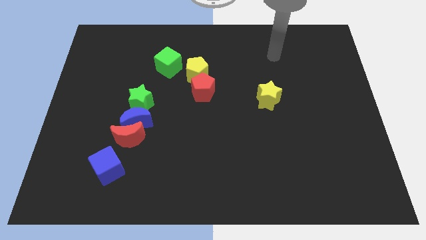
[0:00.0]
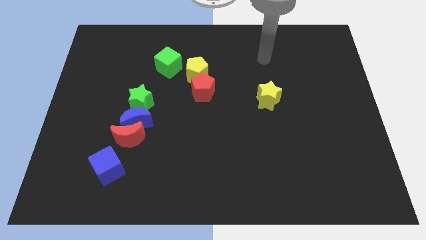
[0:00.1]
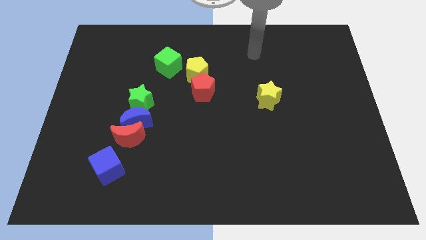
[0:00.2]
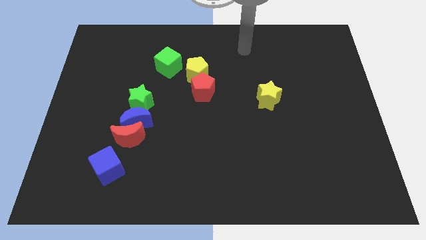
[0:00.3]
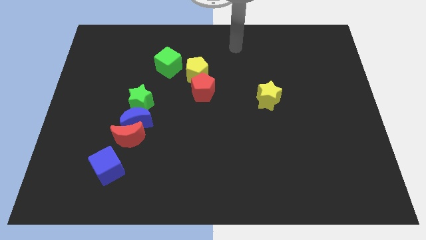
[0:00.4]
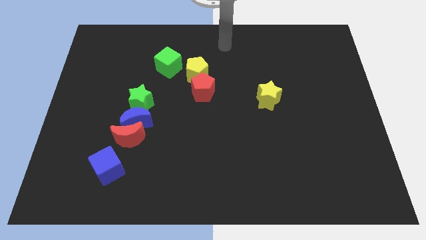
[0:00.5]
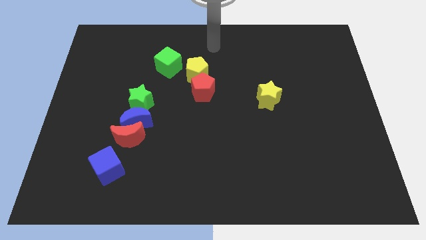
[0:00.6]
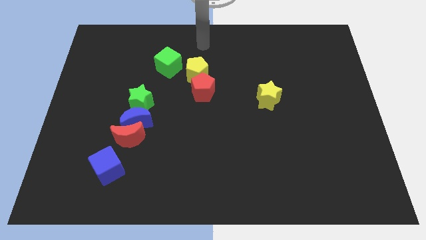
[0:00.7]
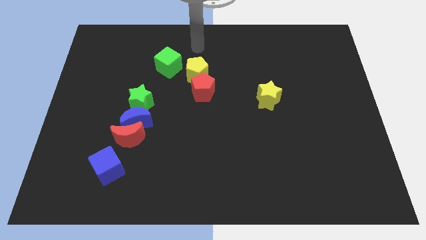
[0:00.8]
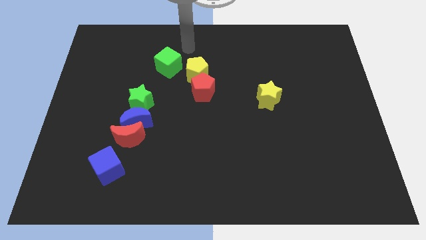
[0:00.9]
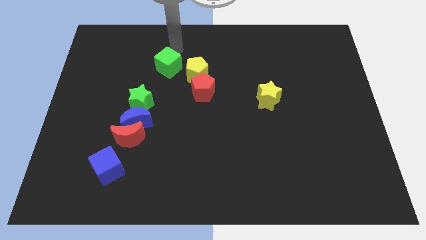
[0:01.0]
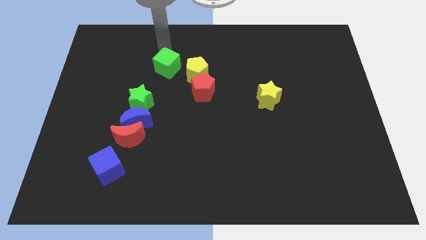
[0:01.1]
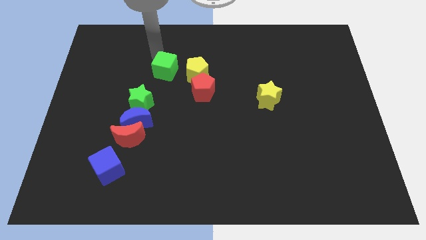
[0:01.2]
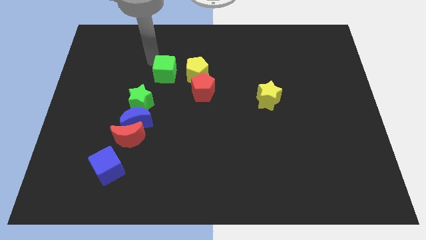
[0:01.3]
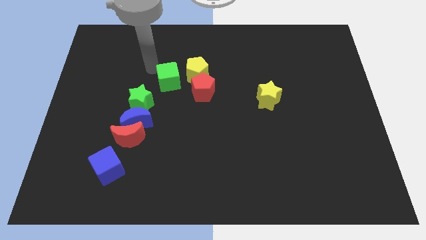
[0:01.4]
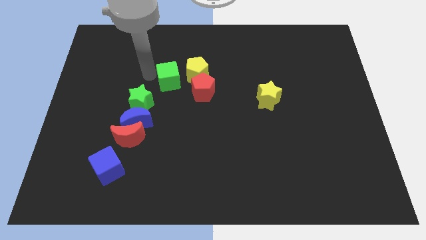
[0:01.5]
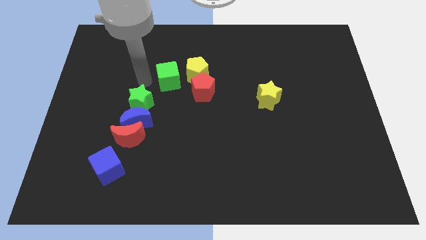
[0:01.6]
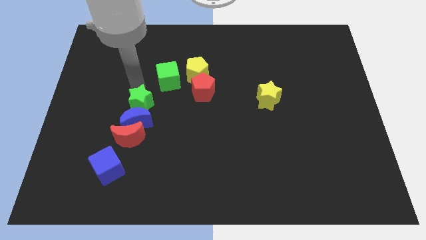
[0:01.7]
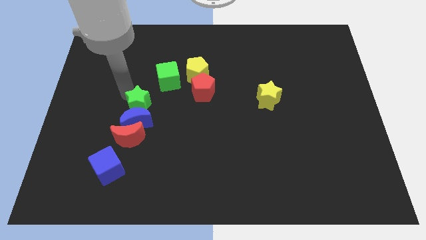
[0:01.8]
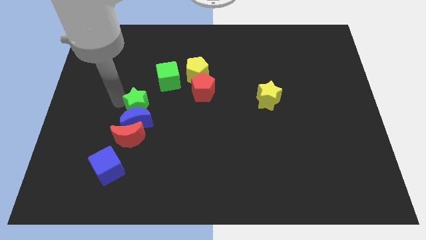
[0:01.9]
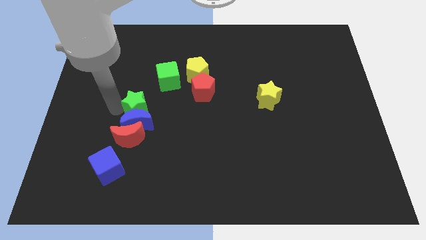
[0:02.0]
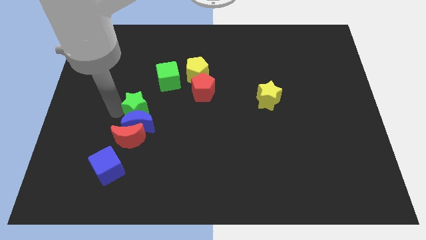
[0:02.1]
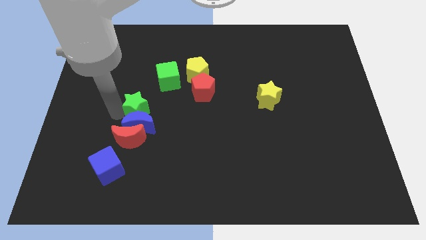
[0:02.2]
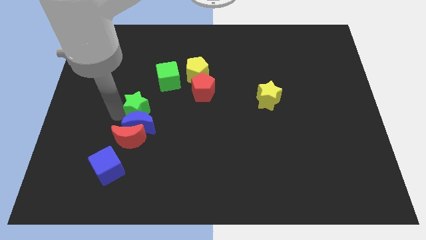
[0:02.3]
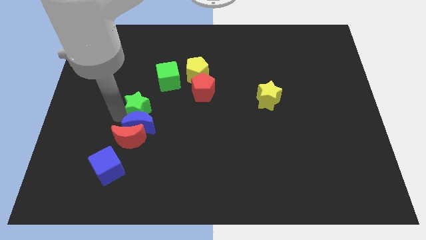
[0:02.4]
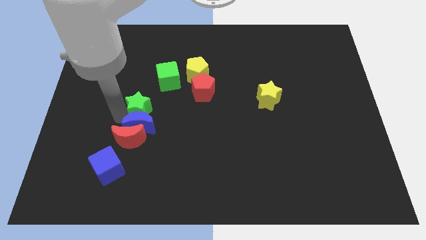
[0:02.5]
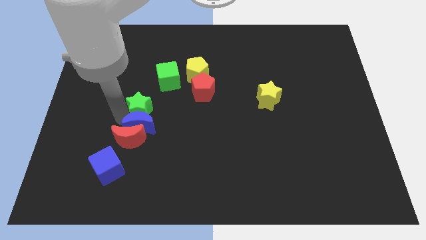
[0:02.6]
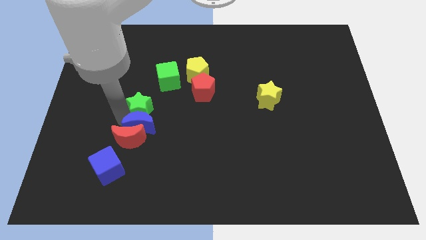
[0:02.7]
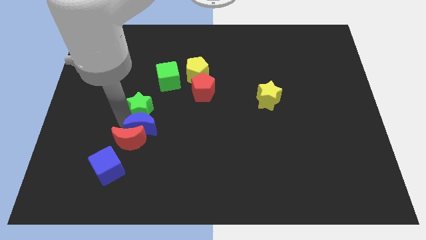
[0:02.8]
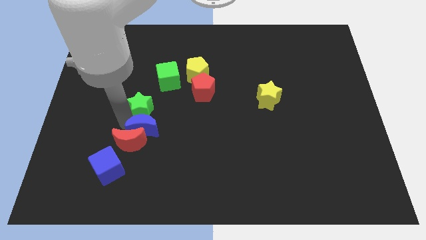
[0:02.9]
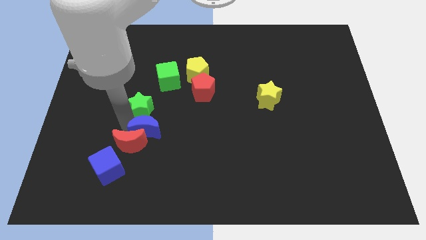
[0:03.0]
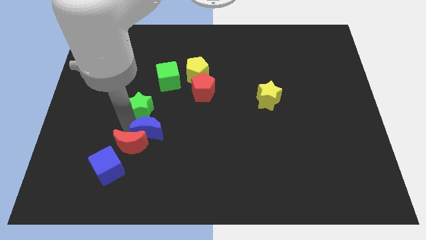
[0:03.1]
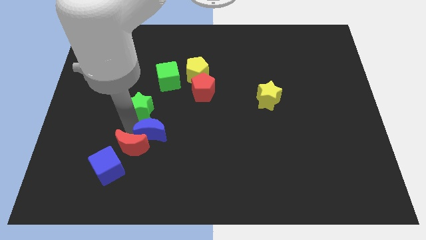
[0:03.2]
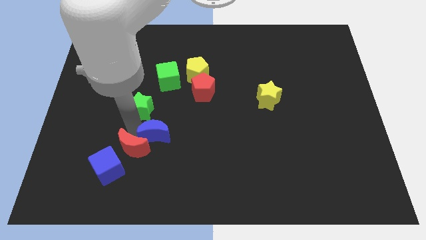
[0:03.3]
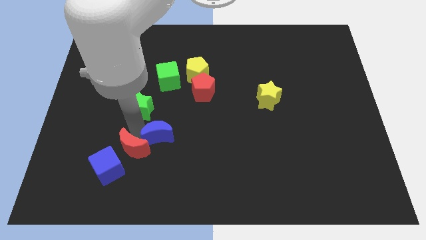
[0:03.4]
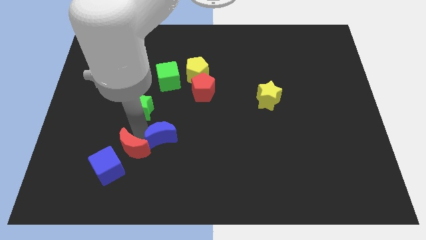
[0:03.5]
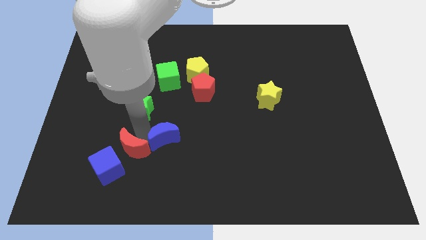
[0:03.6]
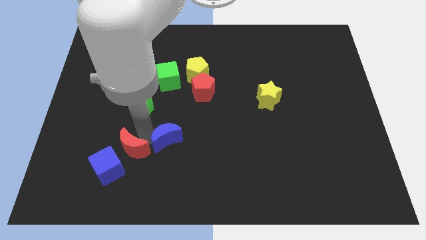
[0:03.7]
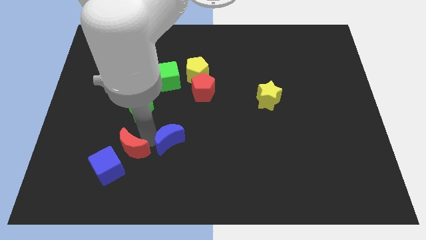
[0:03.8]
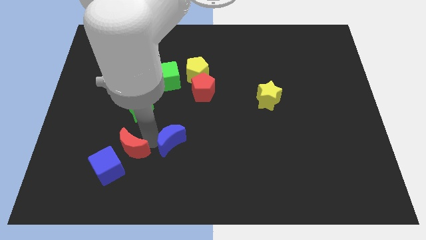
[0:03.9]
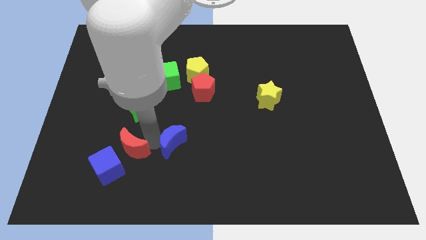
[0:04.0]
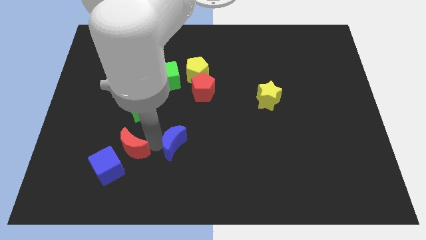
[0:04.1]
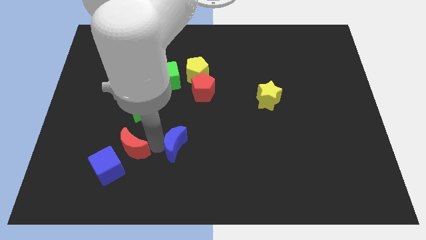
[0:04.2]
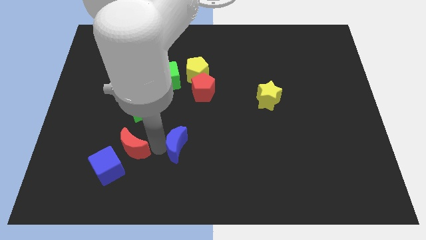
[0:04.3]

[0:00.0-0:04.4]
pull the blue moon apart from the red moon and green star

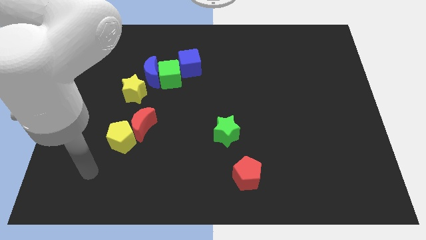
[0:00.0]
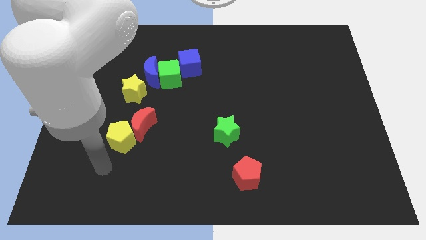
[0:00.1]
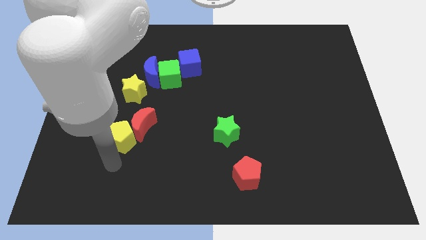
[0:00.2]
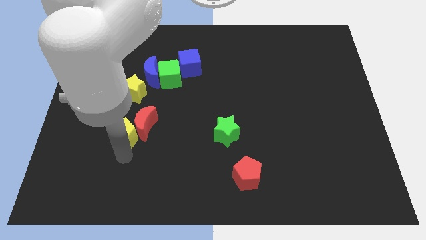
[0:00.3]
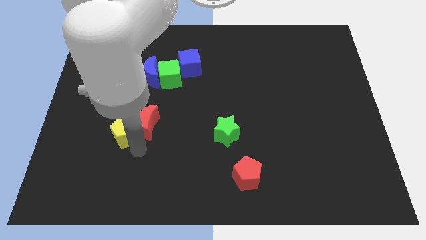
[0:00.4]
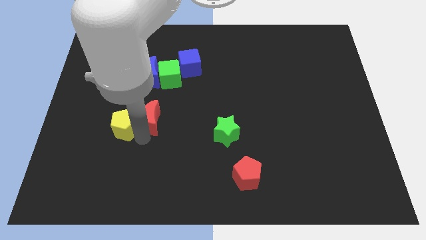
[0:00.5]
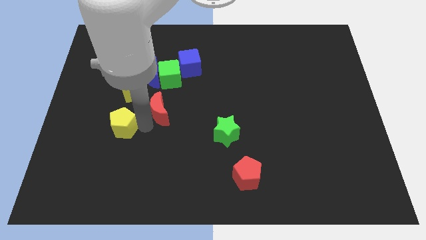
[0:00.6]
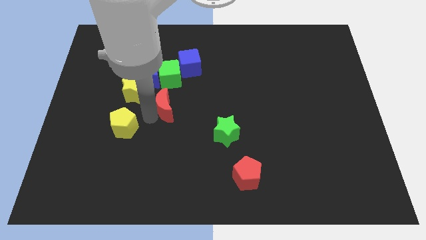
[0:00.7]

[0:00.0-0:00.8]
move the yellow pentagon away from the red moon

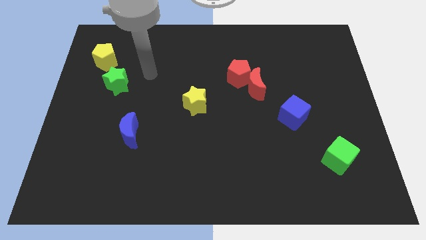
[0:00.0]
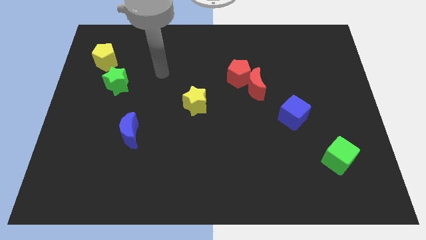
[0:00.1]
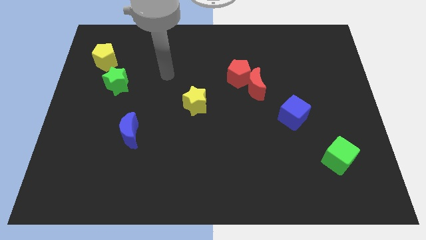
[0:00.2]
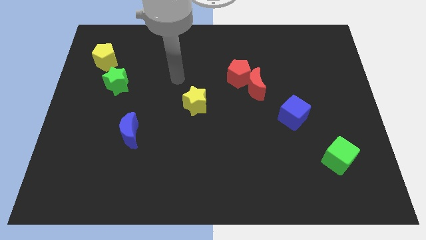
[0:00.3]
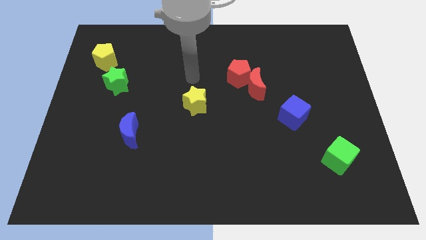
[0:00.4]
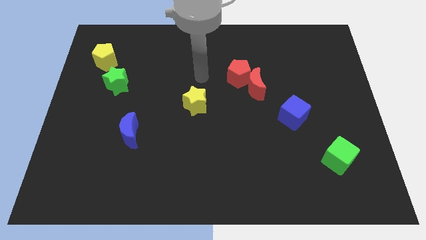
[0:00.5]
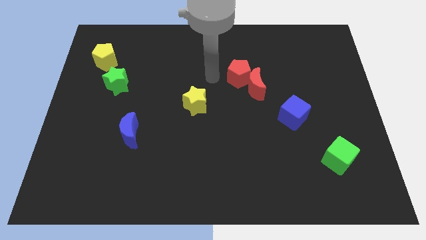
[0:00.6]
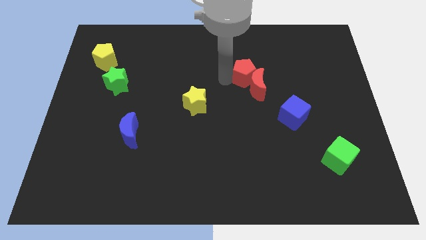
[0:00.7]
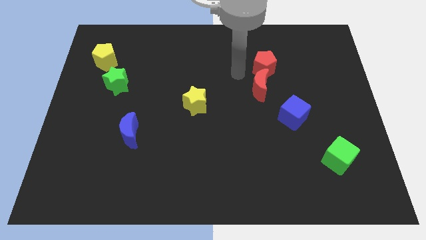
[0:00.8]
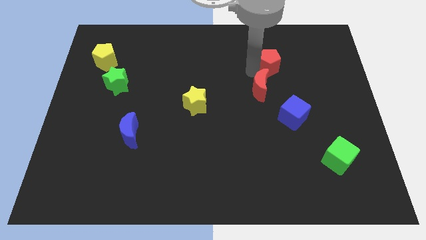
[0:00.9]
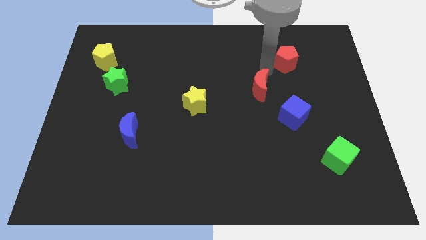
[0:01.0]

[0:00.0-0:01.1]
move the red moon away from the red pentagon

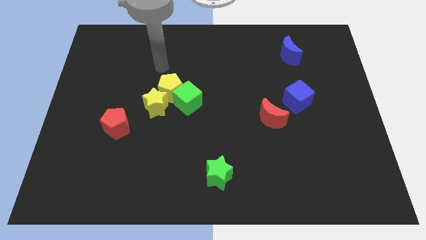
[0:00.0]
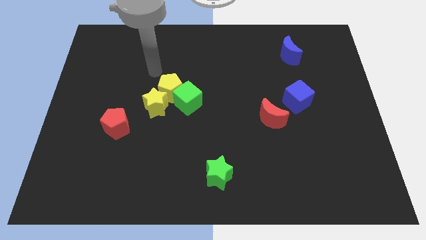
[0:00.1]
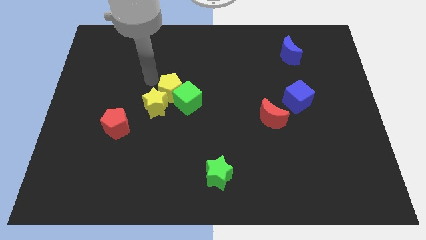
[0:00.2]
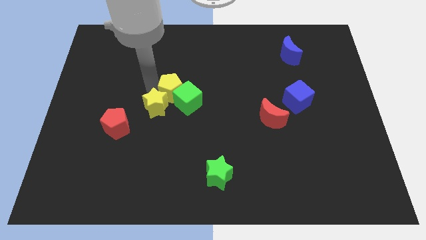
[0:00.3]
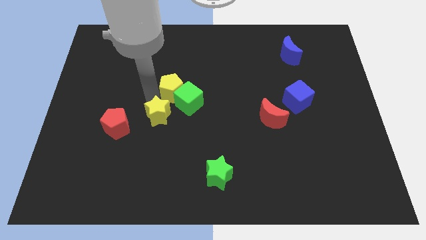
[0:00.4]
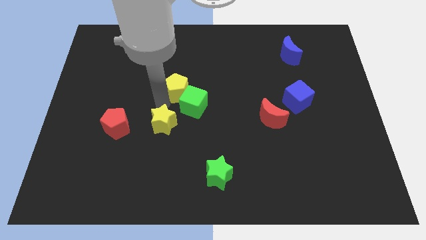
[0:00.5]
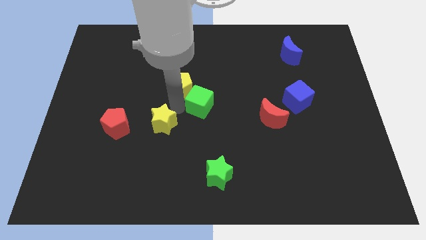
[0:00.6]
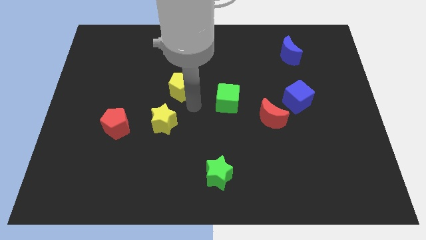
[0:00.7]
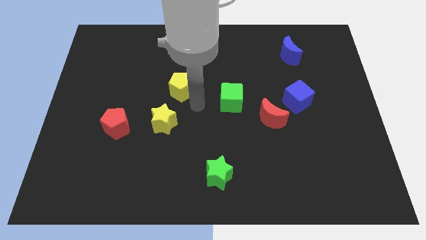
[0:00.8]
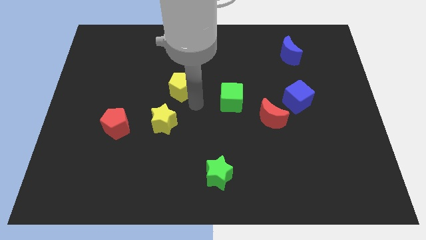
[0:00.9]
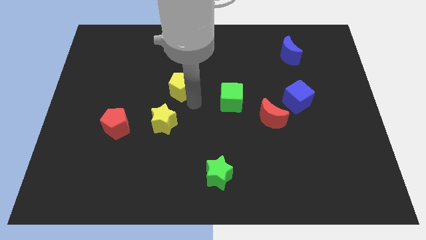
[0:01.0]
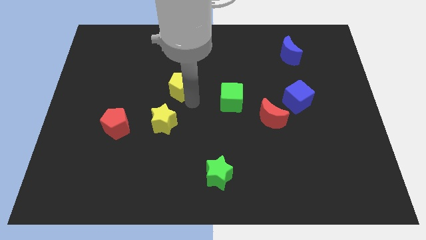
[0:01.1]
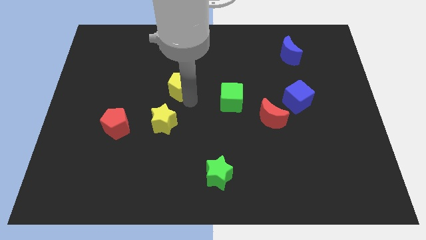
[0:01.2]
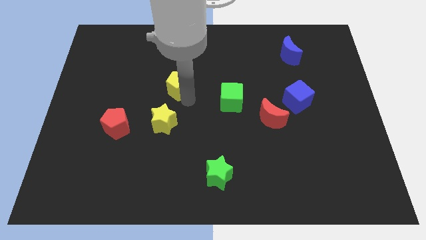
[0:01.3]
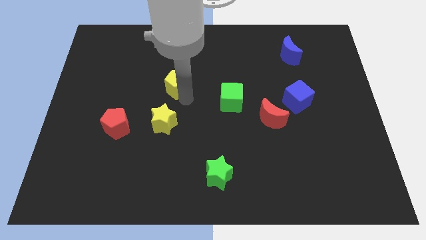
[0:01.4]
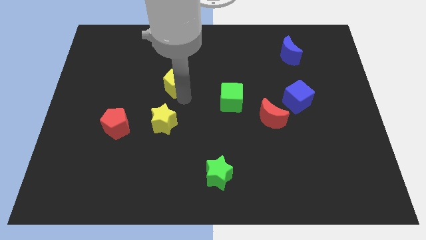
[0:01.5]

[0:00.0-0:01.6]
pull the yellow pentagon apart from the green cube and yellow star

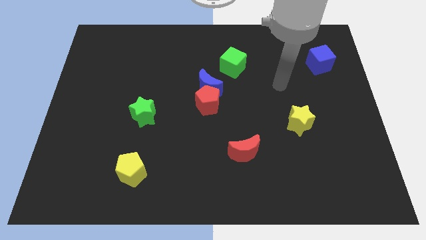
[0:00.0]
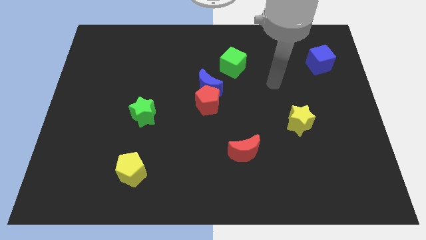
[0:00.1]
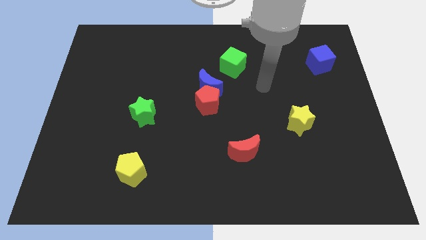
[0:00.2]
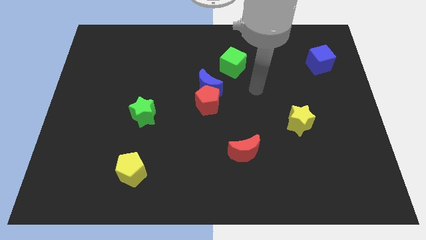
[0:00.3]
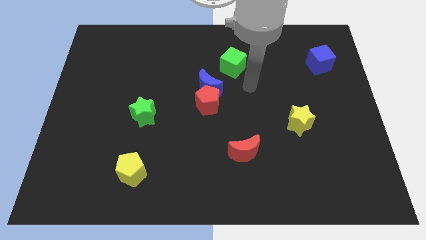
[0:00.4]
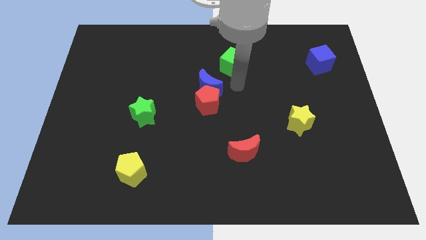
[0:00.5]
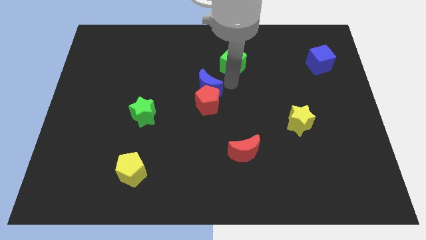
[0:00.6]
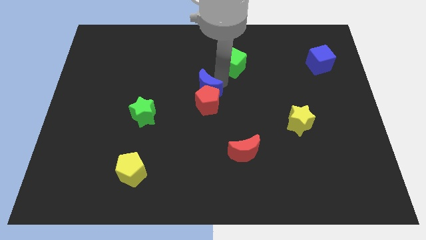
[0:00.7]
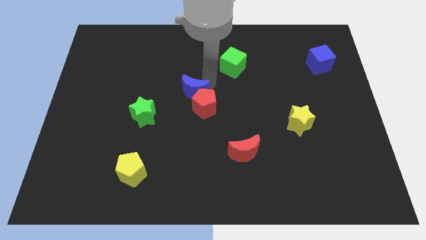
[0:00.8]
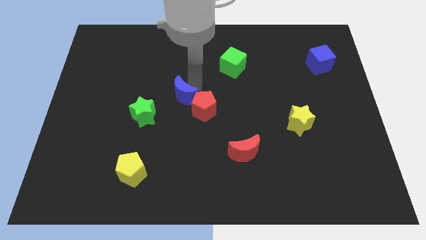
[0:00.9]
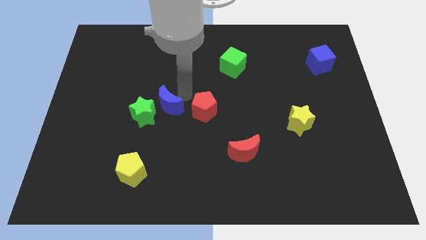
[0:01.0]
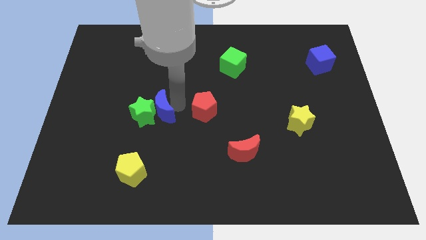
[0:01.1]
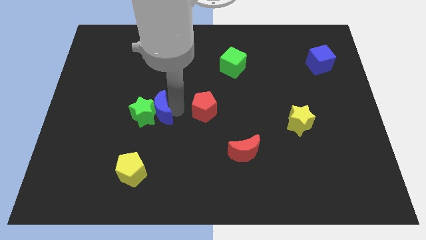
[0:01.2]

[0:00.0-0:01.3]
move the red pentagon away from the blue moon
